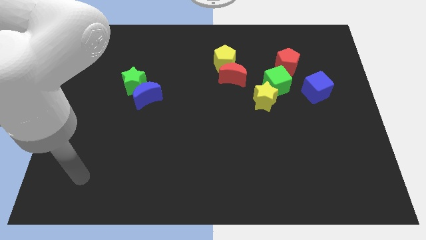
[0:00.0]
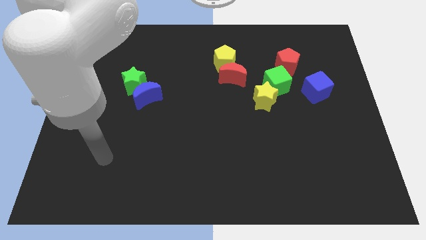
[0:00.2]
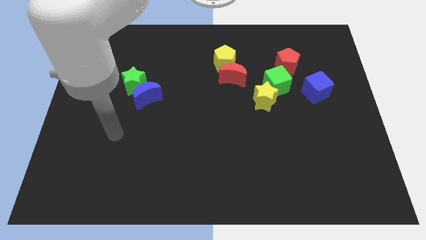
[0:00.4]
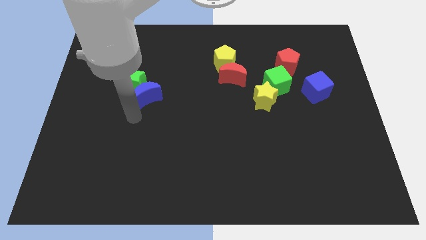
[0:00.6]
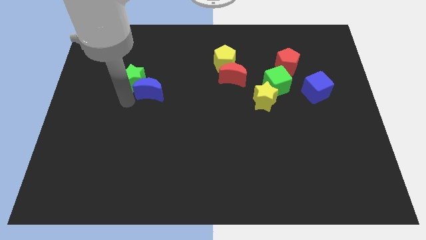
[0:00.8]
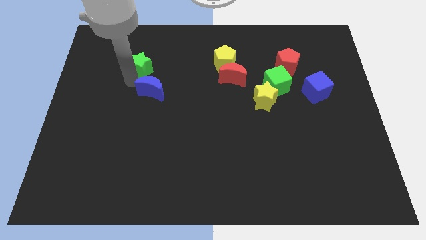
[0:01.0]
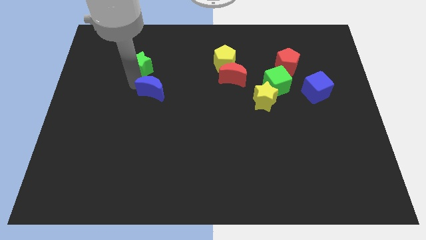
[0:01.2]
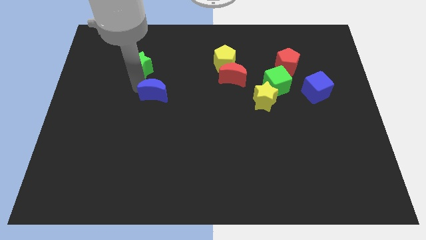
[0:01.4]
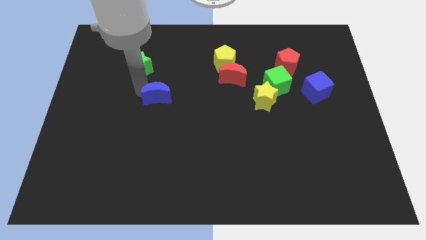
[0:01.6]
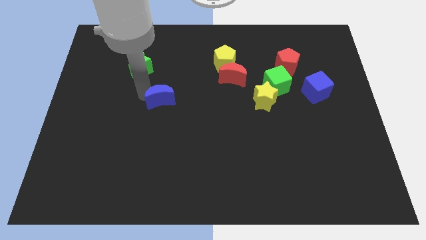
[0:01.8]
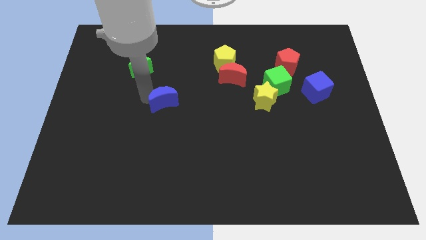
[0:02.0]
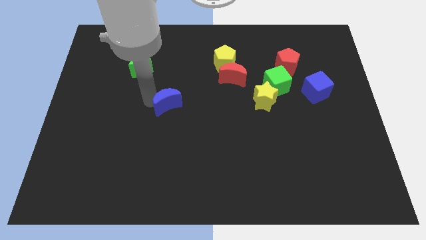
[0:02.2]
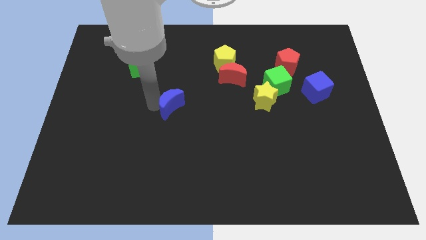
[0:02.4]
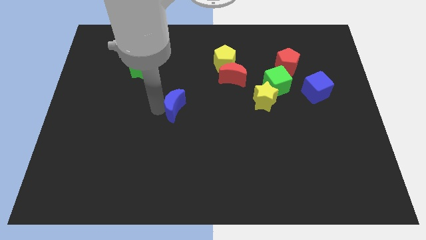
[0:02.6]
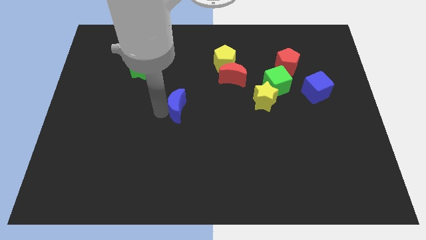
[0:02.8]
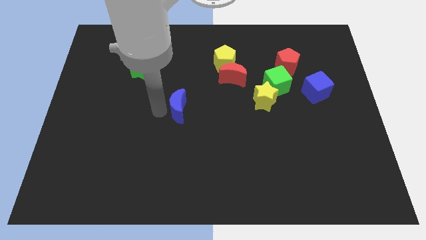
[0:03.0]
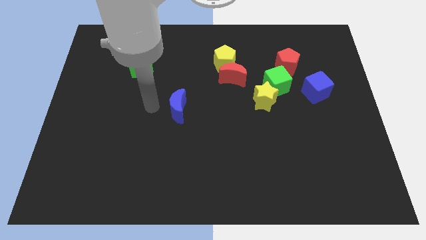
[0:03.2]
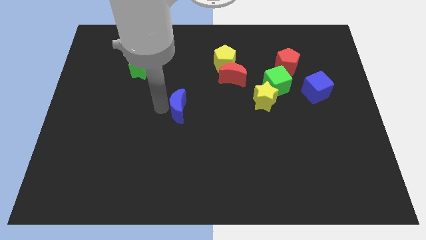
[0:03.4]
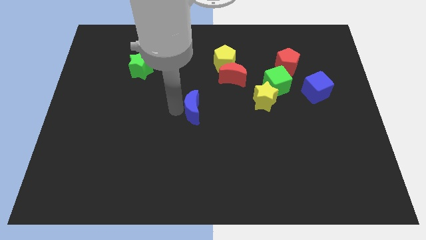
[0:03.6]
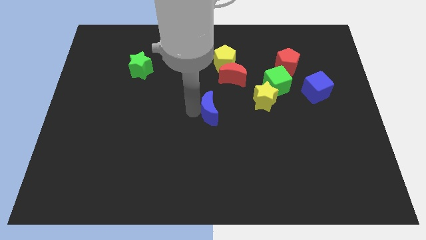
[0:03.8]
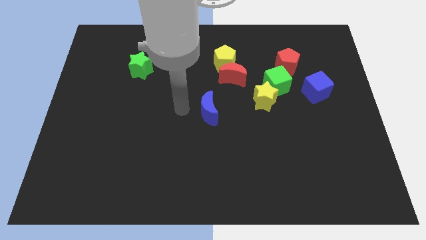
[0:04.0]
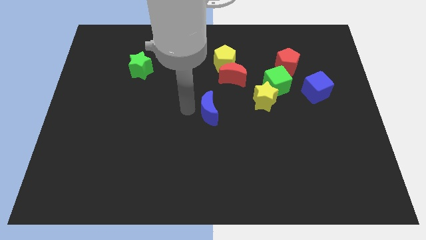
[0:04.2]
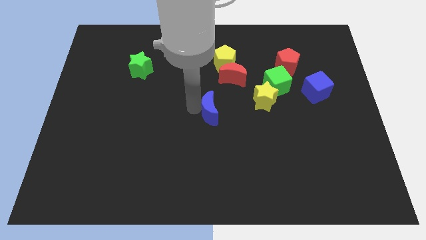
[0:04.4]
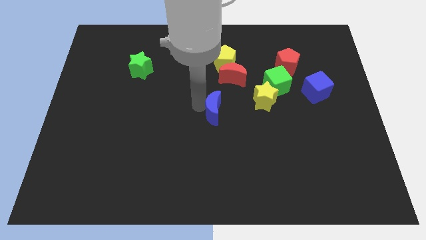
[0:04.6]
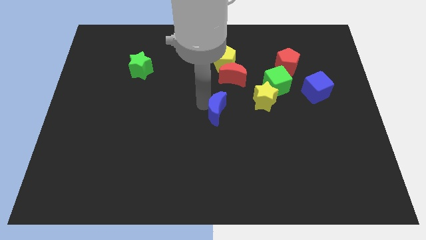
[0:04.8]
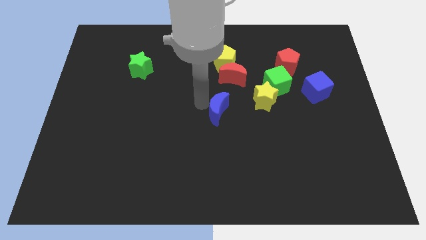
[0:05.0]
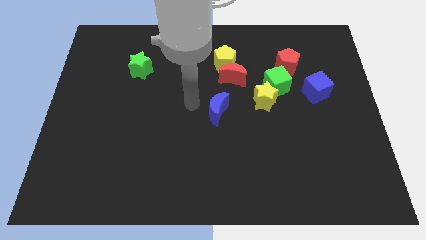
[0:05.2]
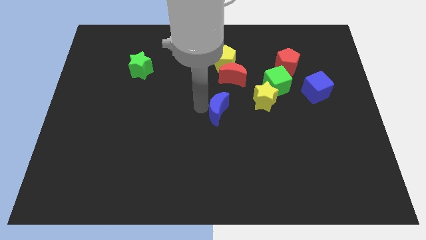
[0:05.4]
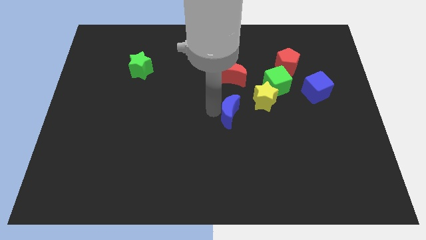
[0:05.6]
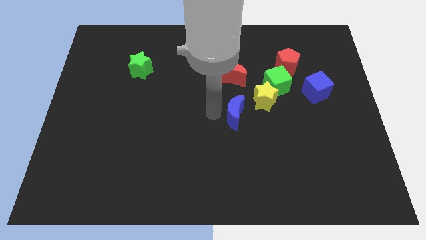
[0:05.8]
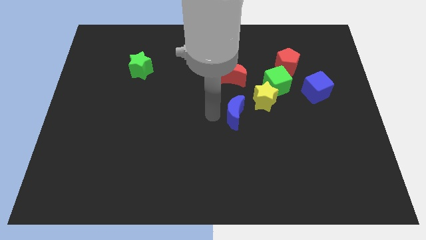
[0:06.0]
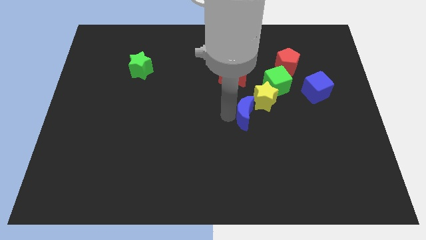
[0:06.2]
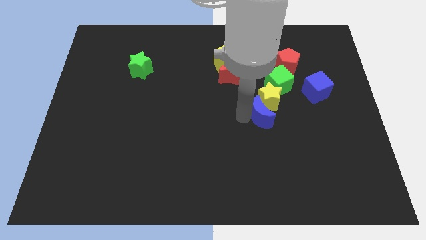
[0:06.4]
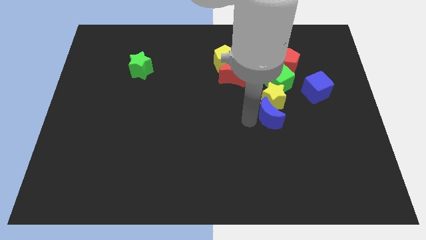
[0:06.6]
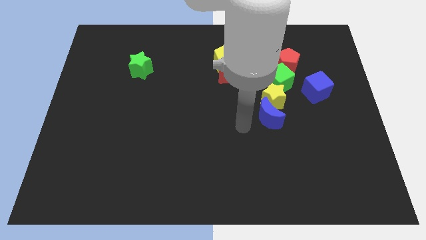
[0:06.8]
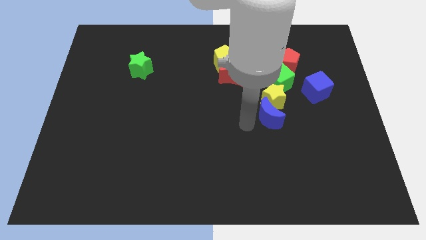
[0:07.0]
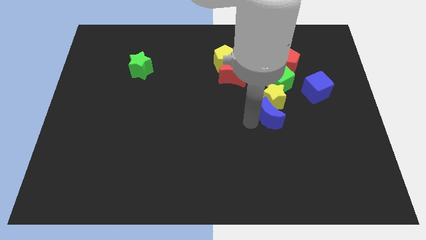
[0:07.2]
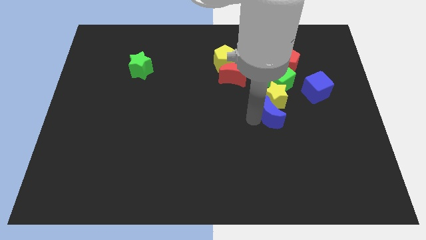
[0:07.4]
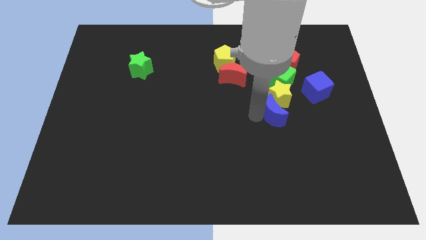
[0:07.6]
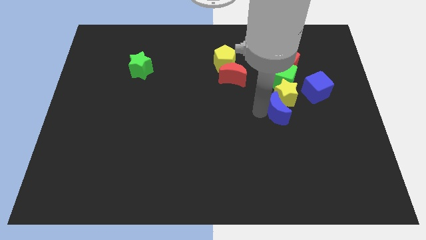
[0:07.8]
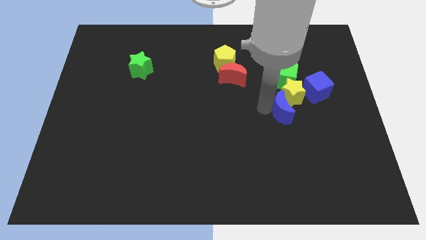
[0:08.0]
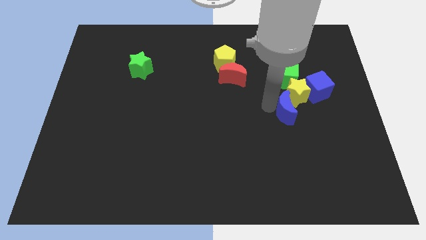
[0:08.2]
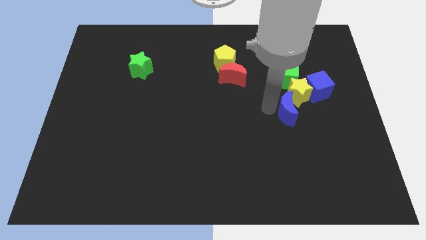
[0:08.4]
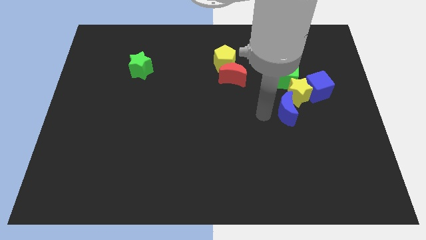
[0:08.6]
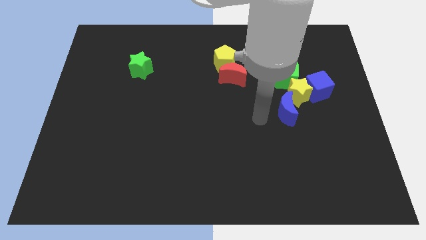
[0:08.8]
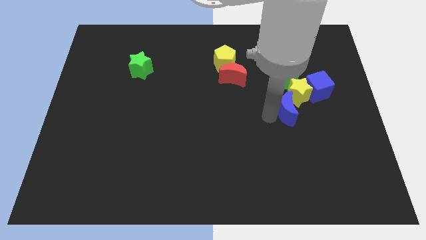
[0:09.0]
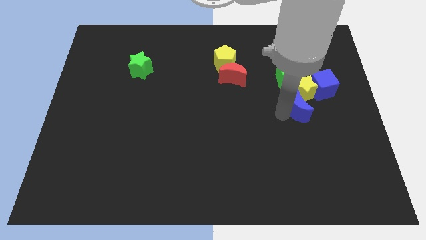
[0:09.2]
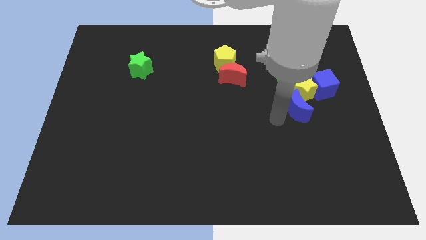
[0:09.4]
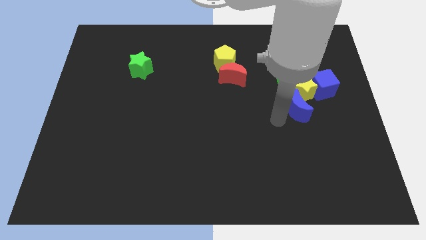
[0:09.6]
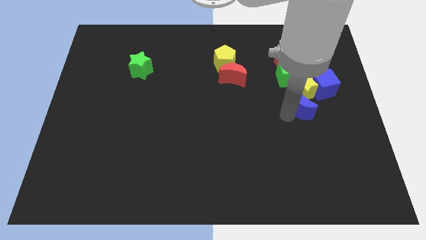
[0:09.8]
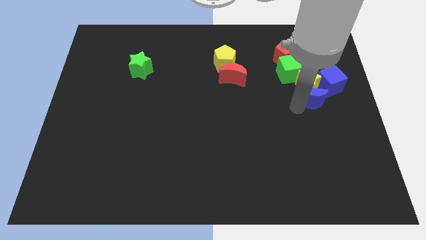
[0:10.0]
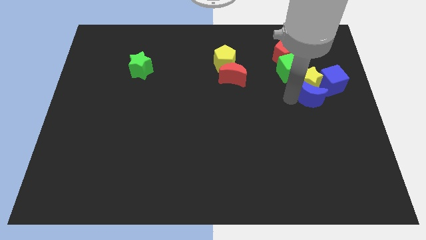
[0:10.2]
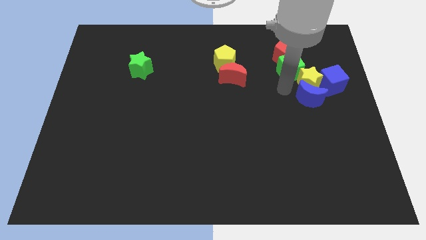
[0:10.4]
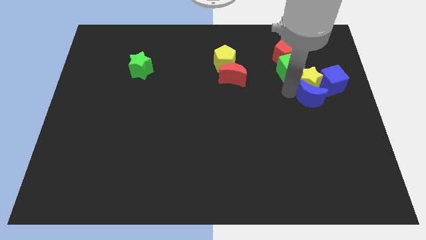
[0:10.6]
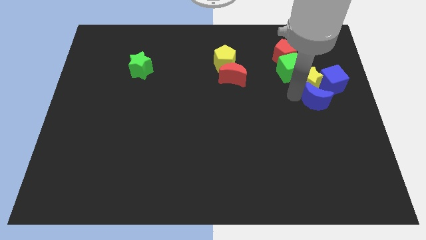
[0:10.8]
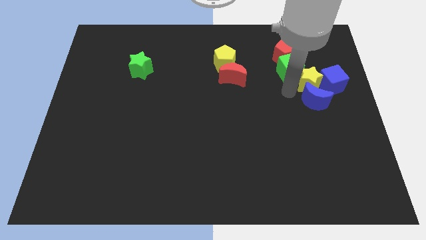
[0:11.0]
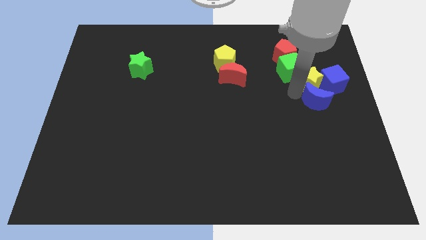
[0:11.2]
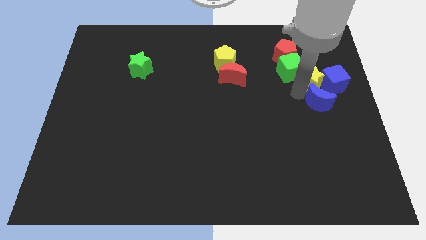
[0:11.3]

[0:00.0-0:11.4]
put the blue moon to the right side of the board

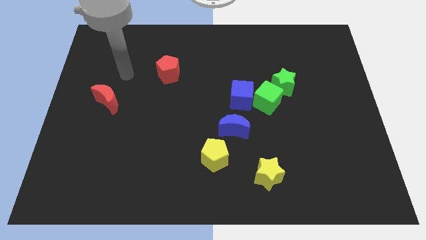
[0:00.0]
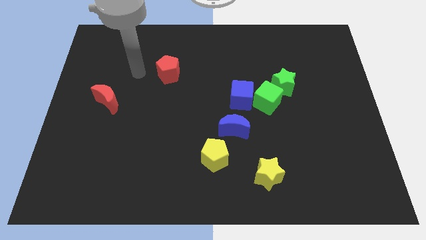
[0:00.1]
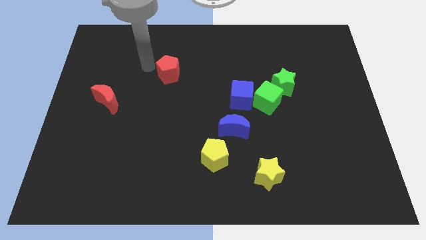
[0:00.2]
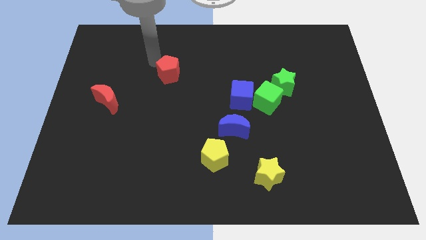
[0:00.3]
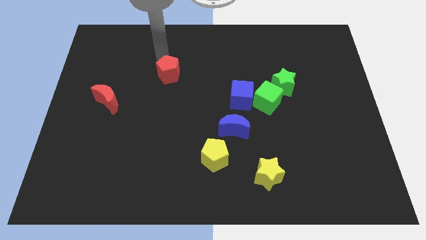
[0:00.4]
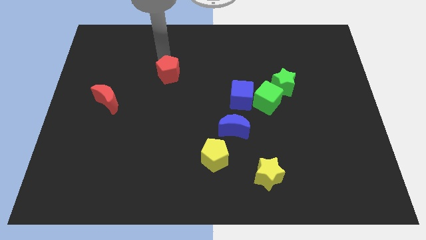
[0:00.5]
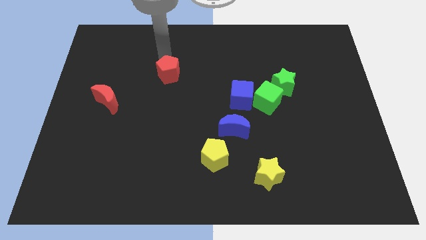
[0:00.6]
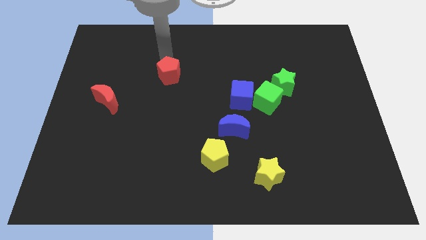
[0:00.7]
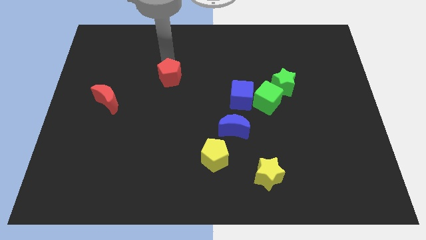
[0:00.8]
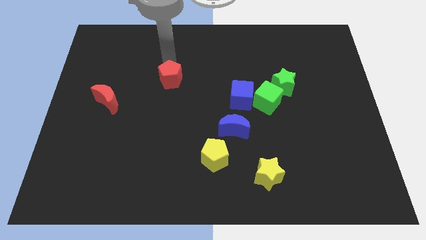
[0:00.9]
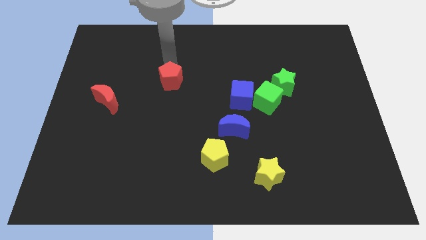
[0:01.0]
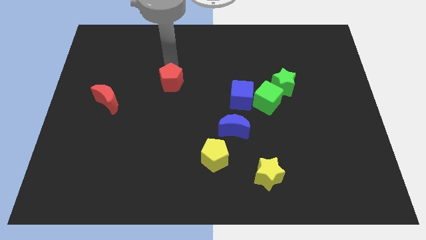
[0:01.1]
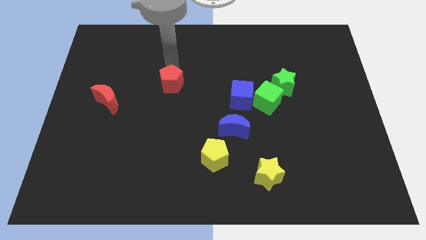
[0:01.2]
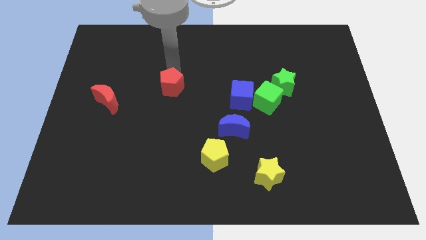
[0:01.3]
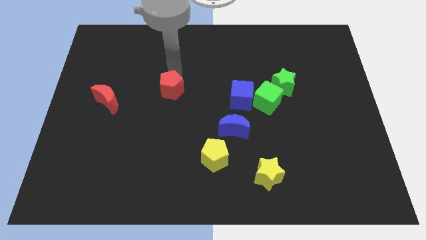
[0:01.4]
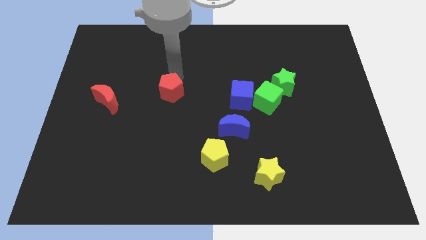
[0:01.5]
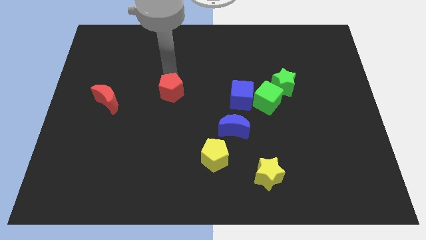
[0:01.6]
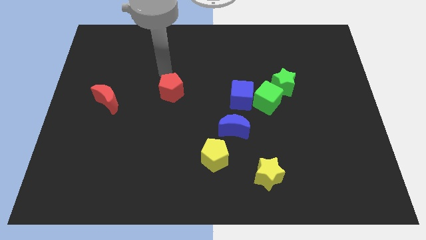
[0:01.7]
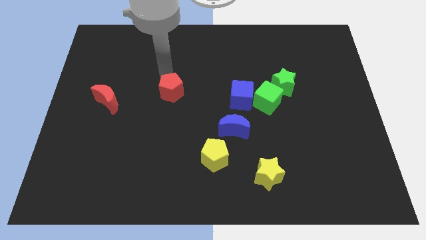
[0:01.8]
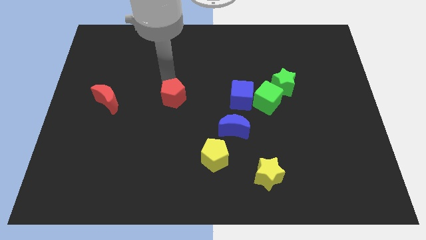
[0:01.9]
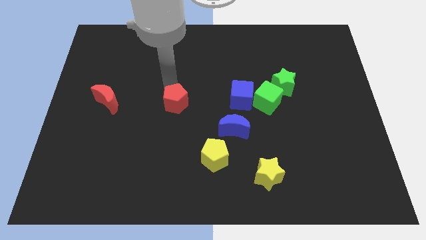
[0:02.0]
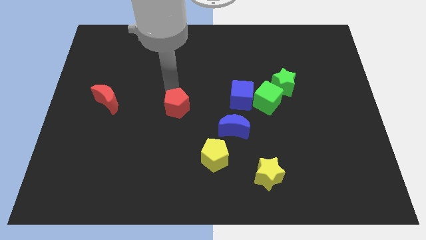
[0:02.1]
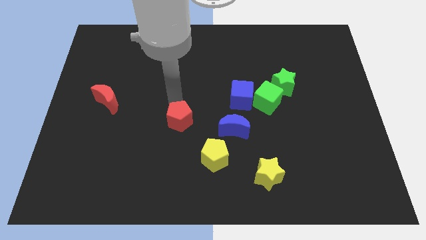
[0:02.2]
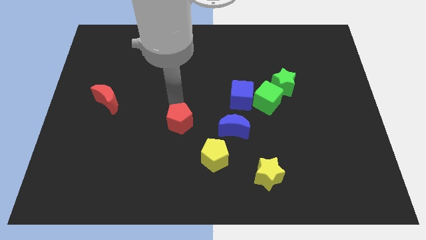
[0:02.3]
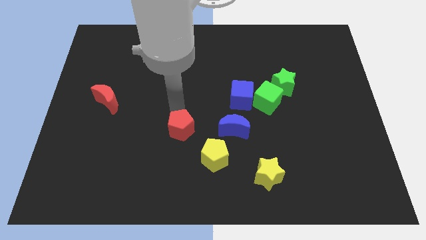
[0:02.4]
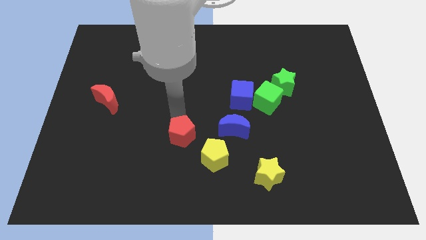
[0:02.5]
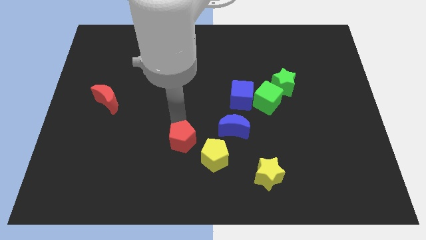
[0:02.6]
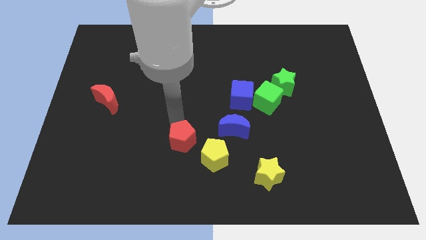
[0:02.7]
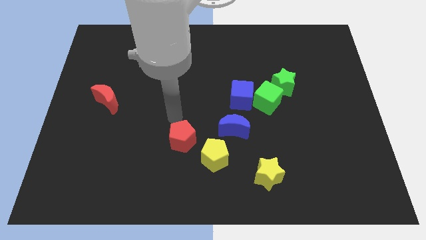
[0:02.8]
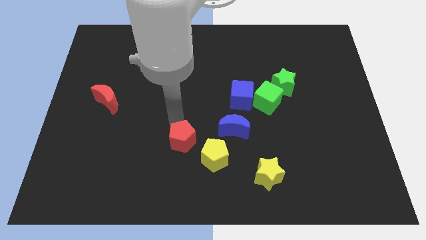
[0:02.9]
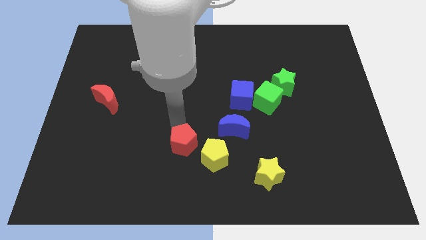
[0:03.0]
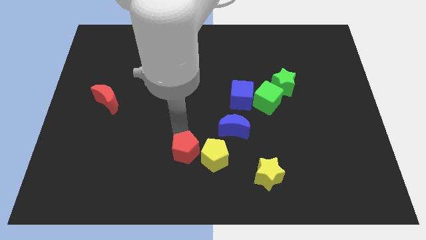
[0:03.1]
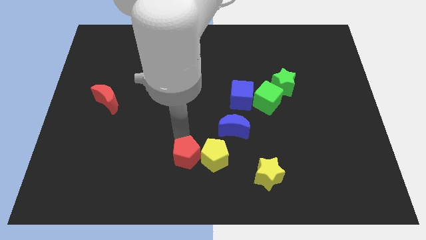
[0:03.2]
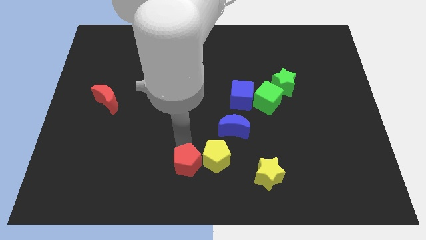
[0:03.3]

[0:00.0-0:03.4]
slide the red pentagon to the bottom
